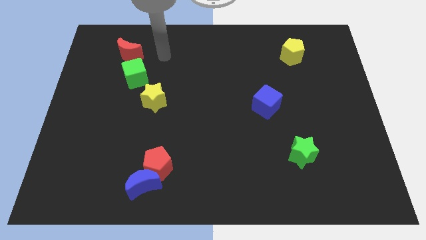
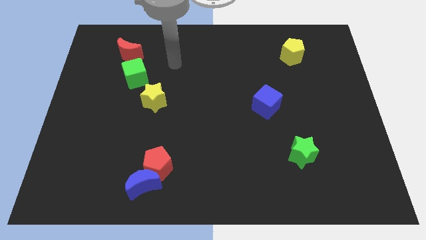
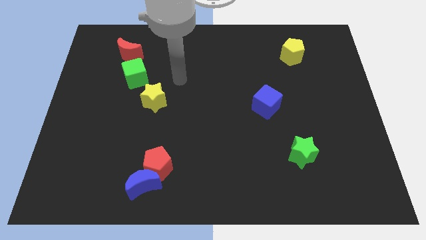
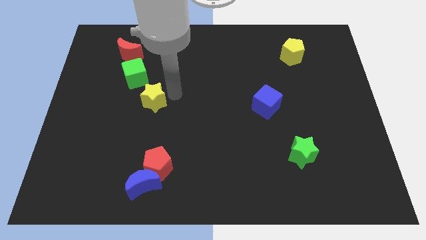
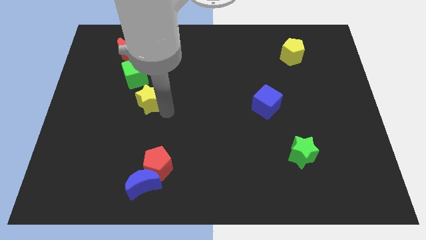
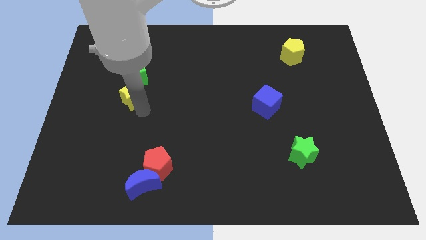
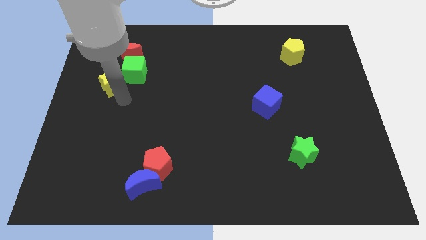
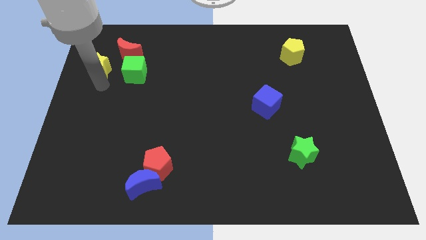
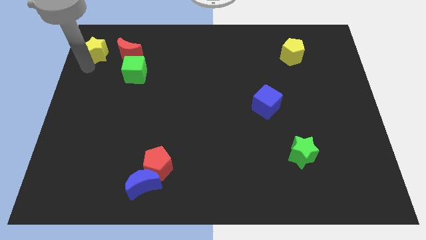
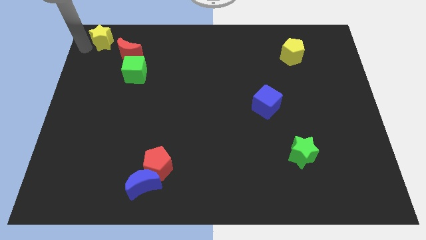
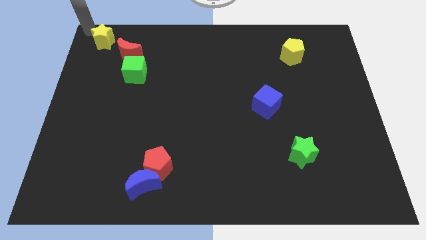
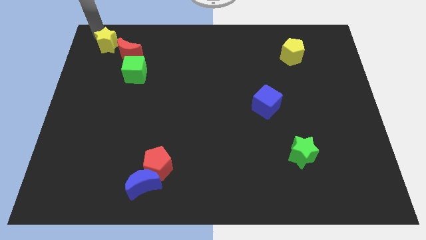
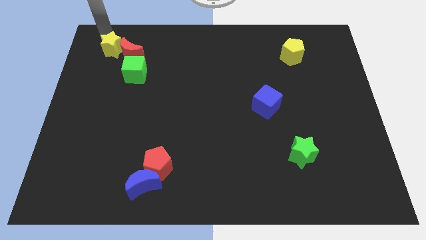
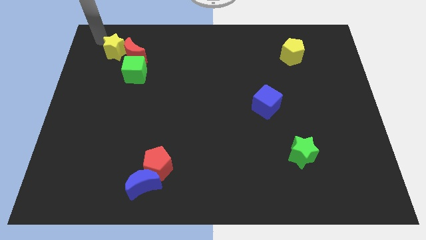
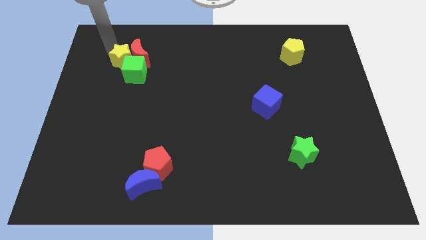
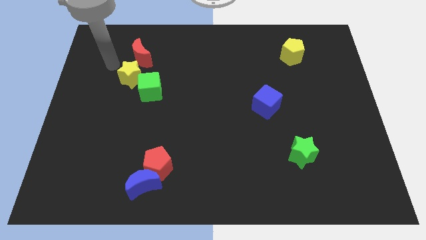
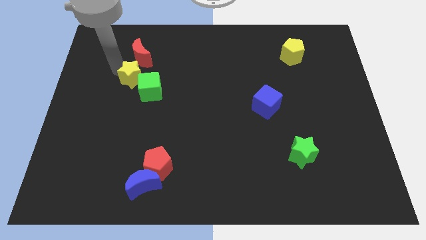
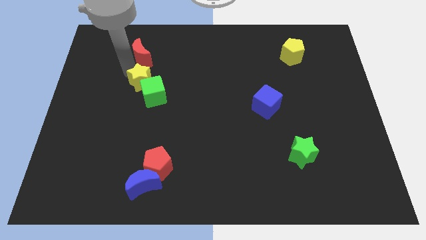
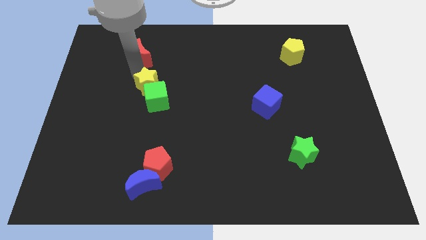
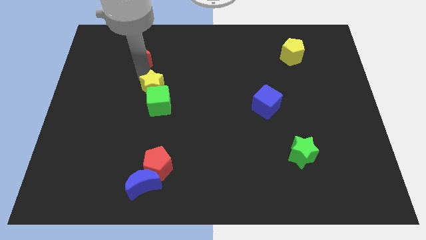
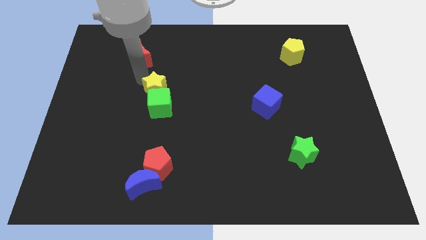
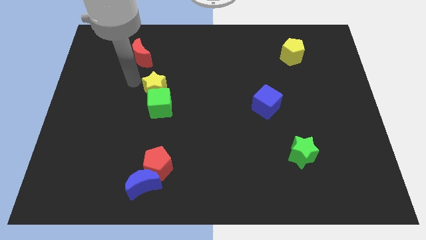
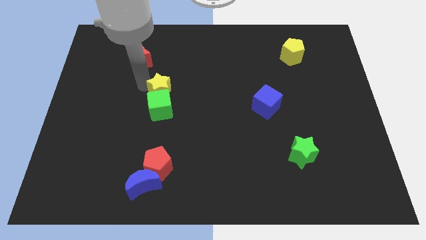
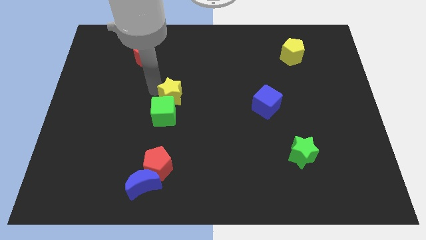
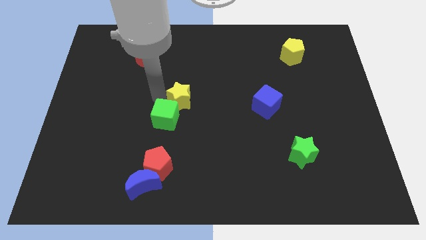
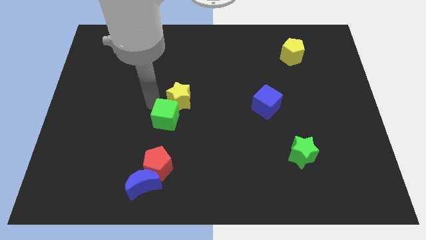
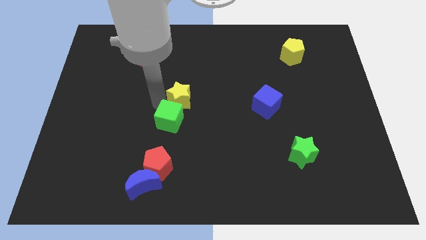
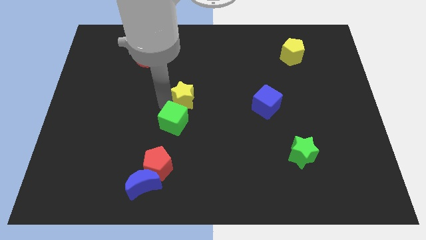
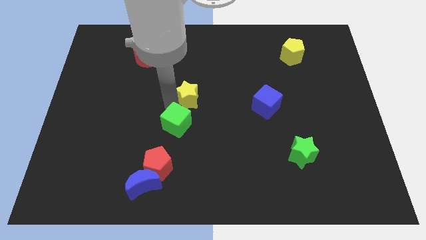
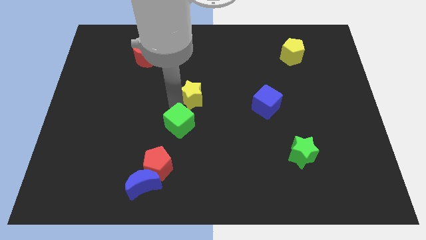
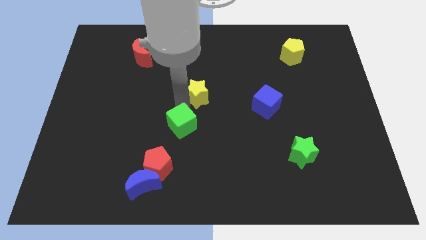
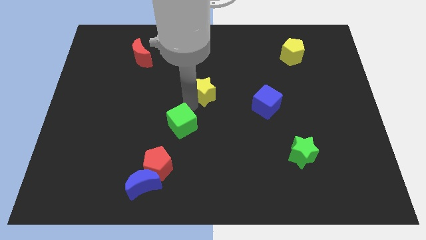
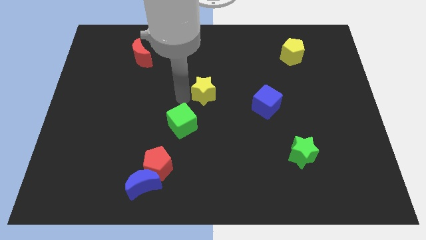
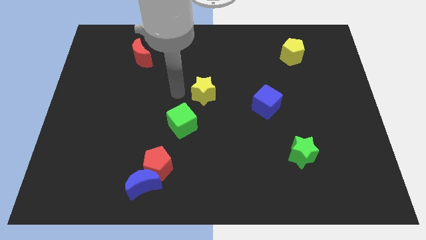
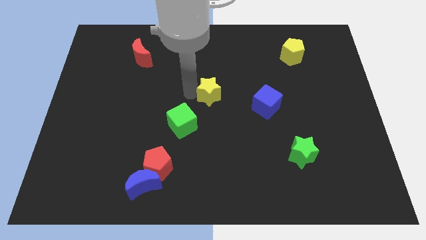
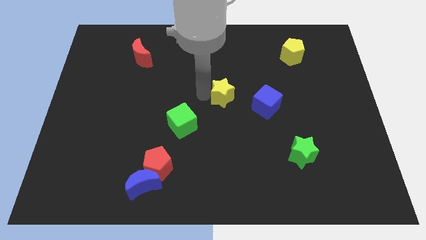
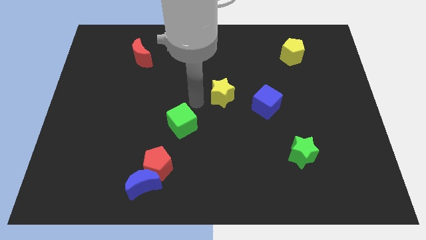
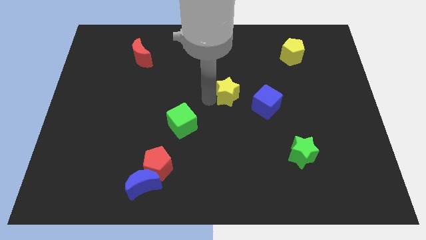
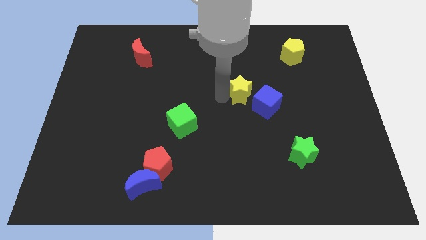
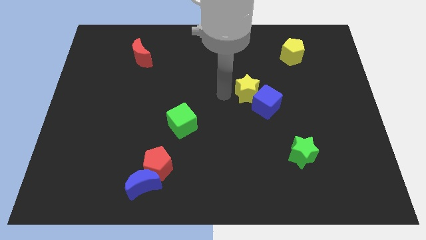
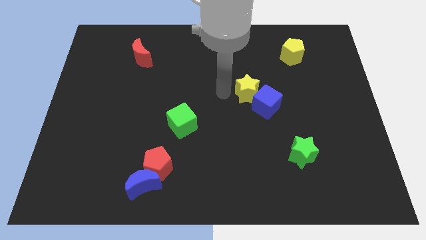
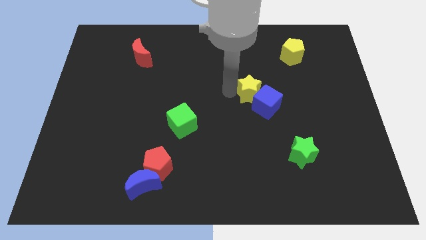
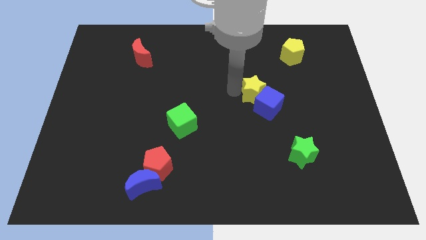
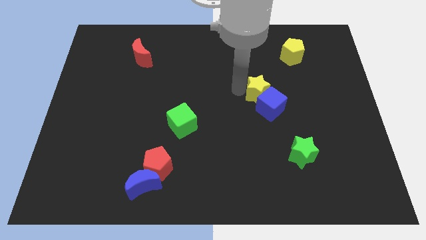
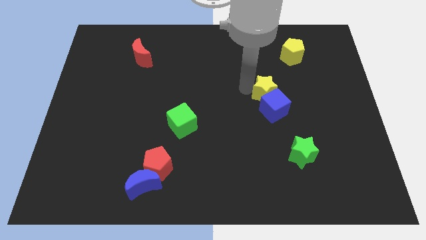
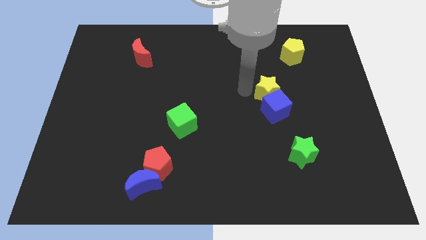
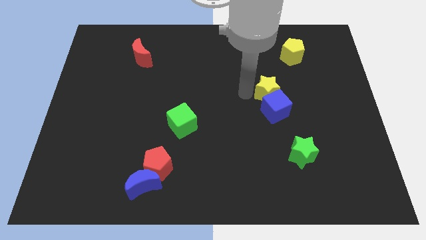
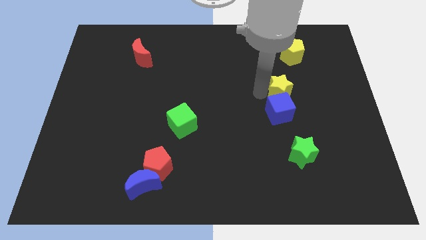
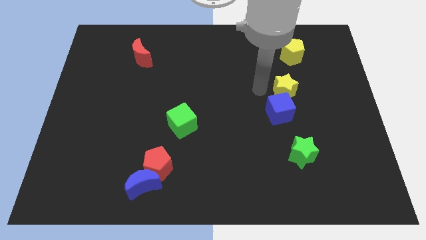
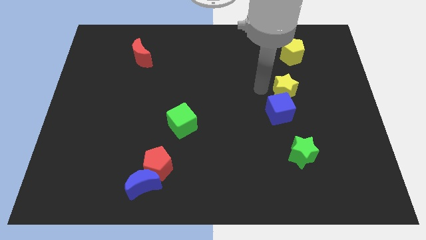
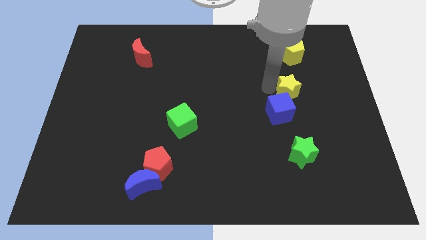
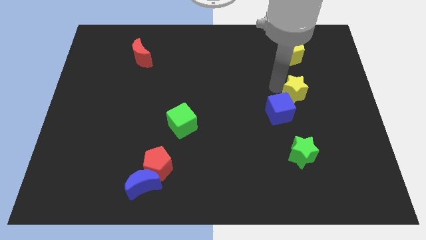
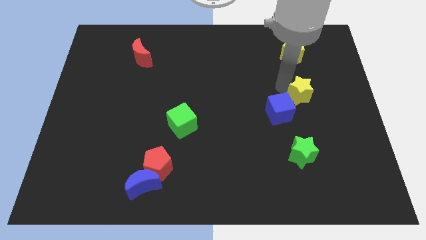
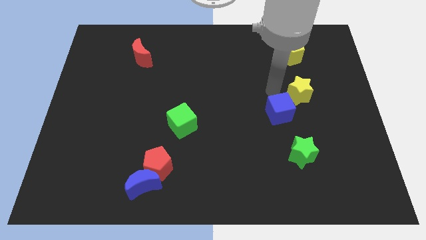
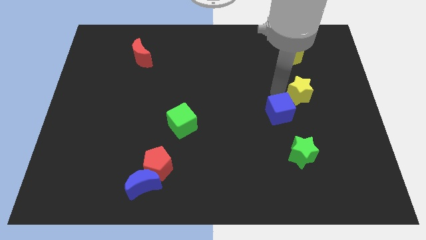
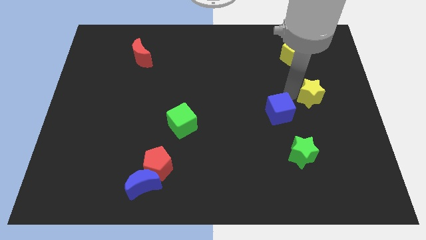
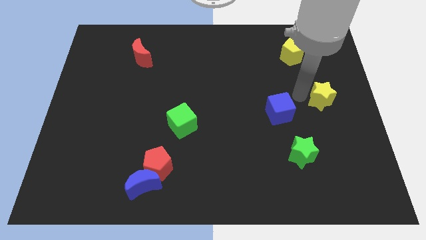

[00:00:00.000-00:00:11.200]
put the yellow star to the center right

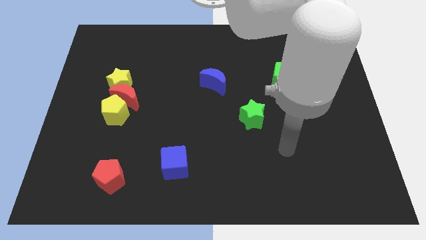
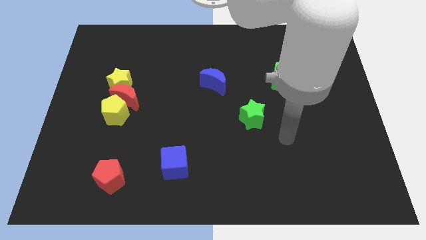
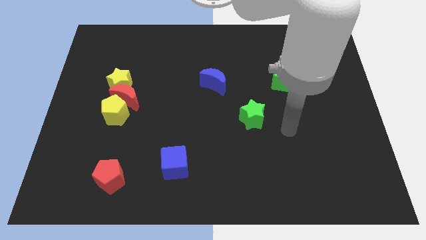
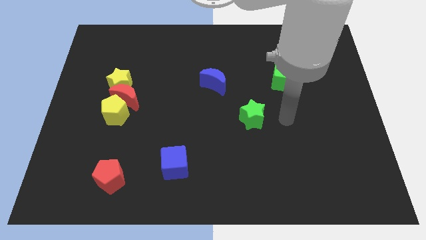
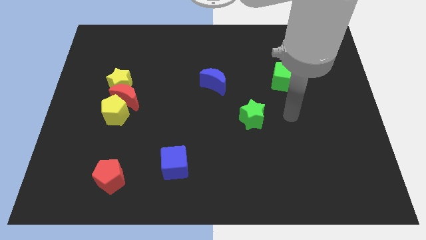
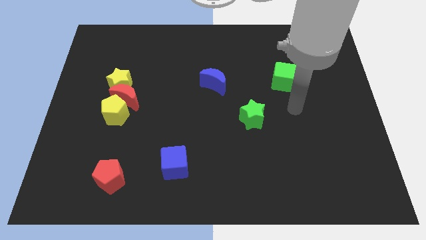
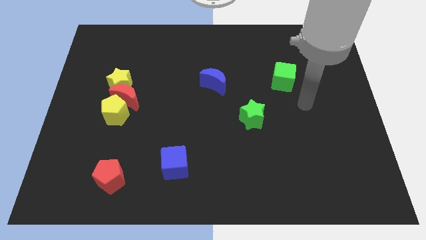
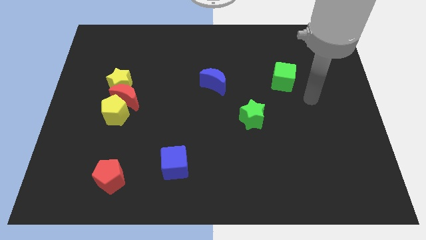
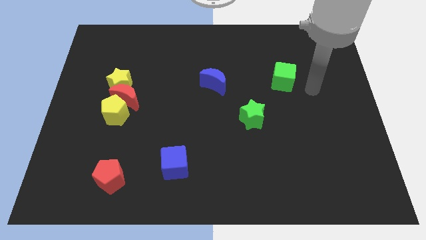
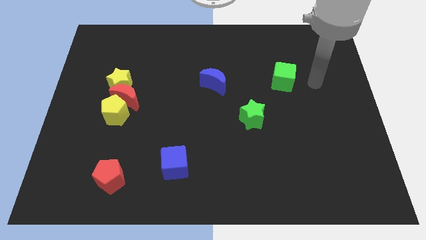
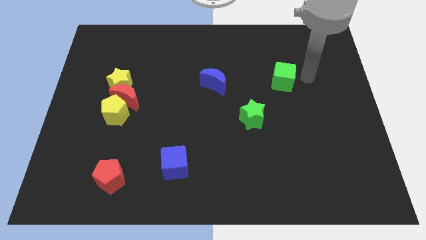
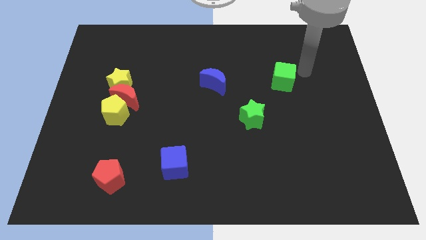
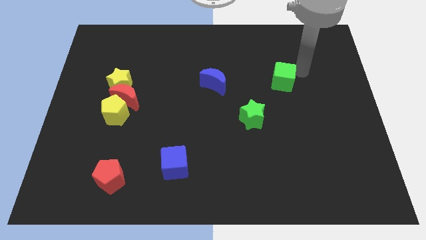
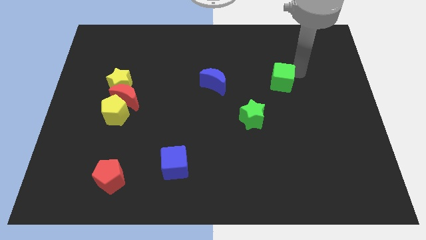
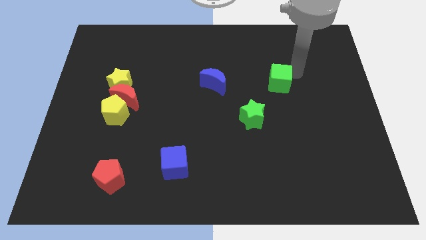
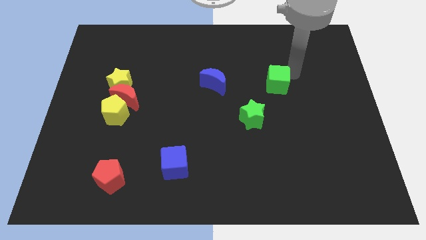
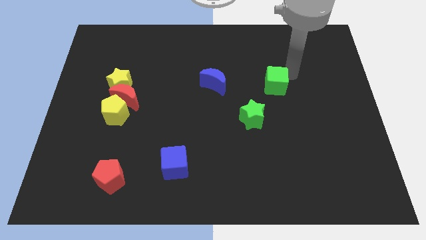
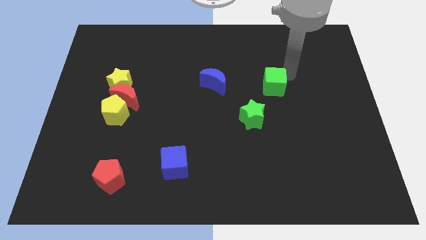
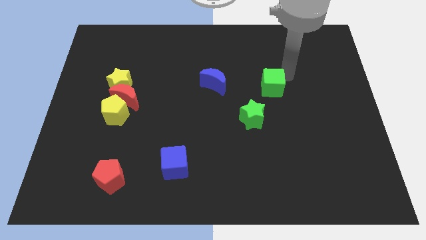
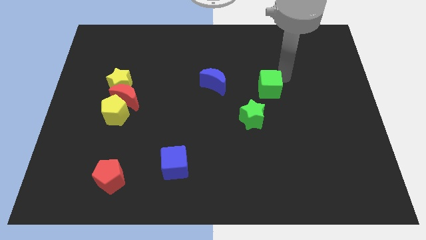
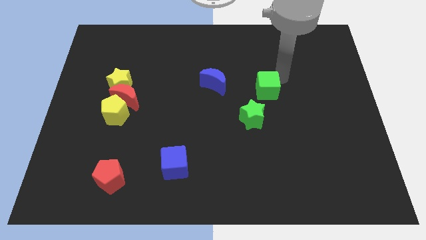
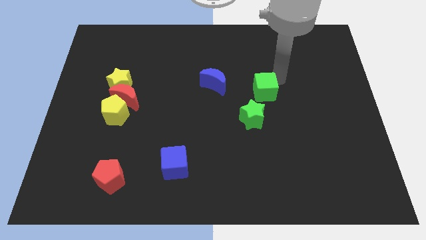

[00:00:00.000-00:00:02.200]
put the green cube to the center of the board
